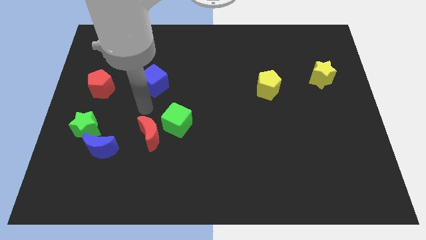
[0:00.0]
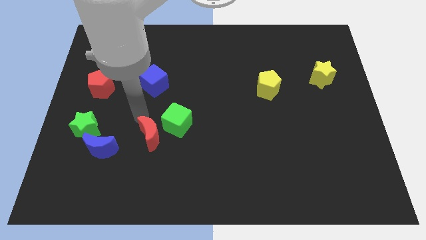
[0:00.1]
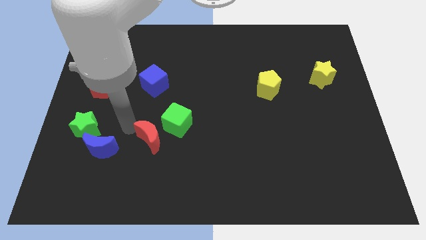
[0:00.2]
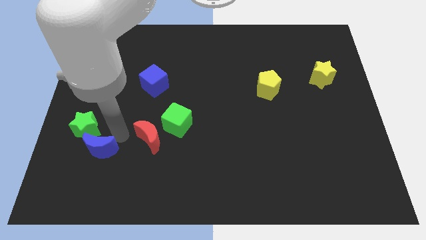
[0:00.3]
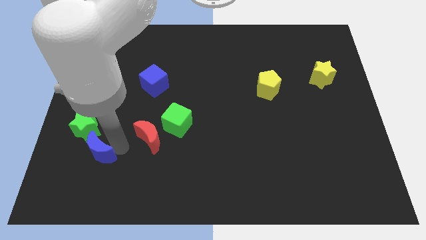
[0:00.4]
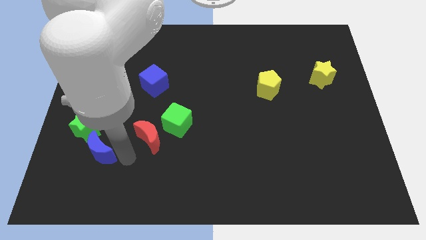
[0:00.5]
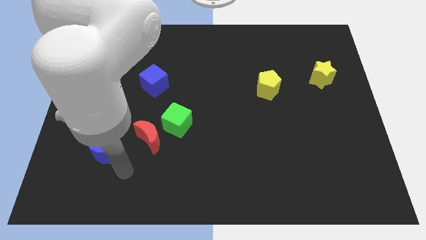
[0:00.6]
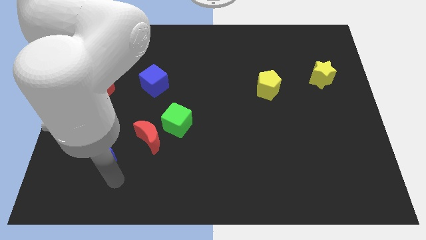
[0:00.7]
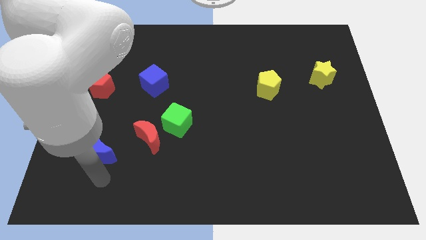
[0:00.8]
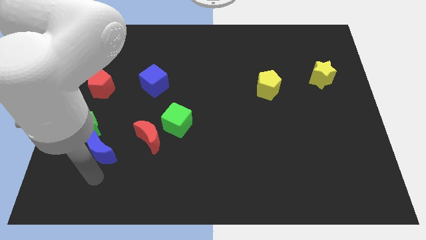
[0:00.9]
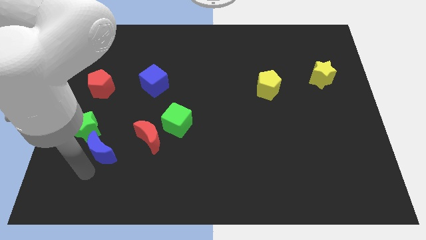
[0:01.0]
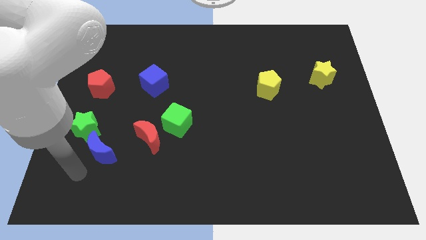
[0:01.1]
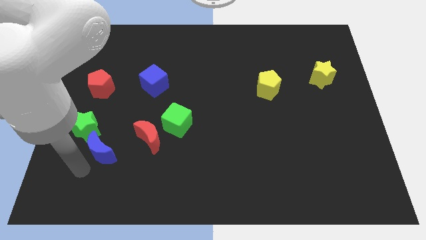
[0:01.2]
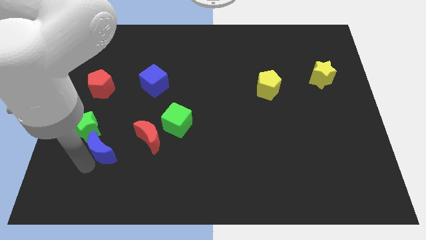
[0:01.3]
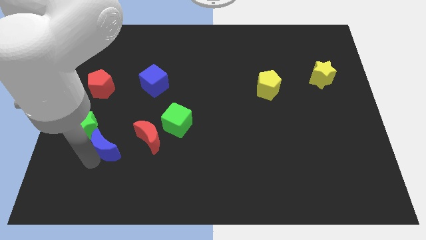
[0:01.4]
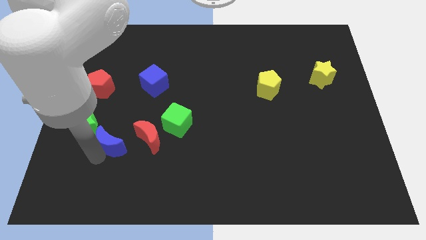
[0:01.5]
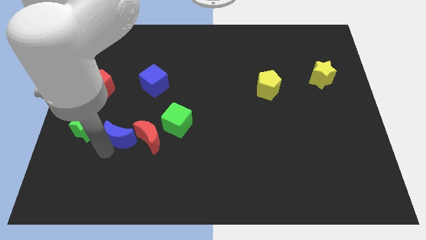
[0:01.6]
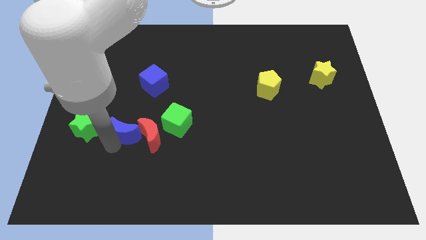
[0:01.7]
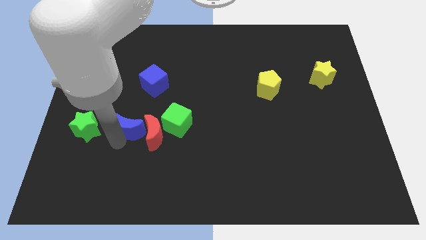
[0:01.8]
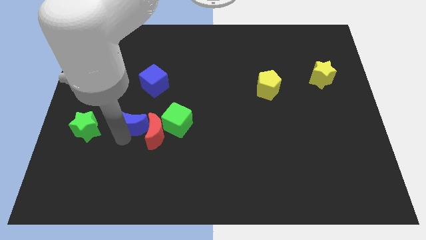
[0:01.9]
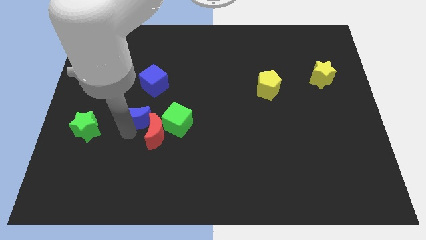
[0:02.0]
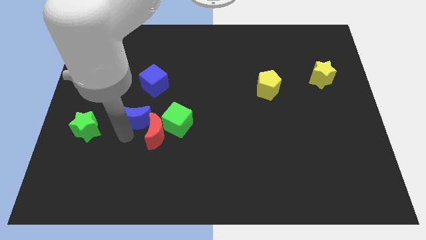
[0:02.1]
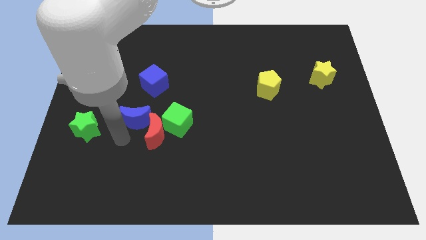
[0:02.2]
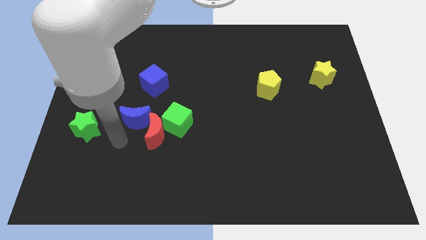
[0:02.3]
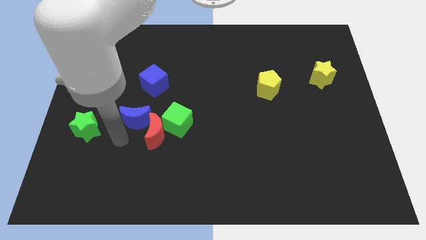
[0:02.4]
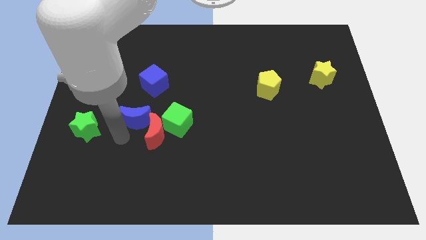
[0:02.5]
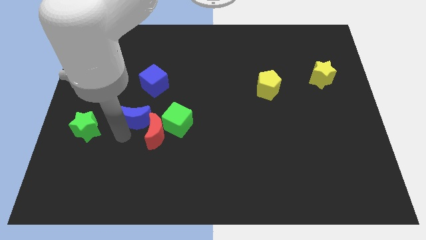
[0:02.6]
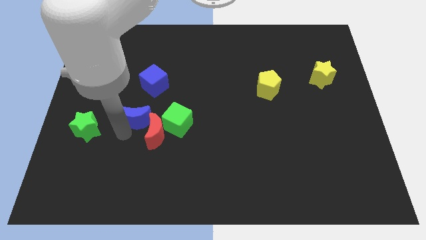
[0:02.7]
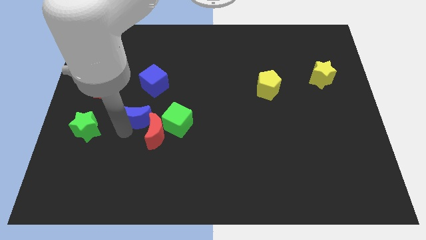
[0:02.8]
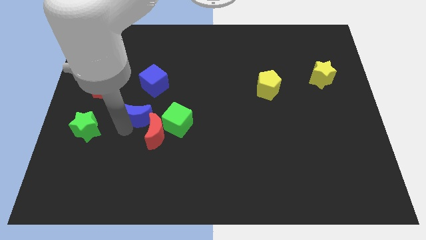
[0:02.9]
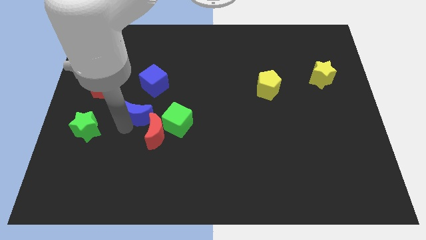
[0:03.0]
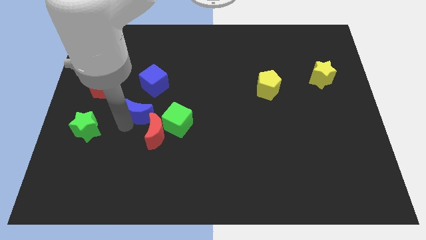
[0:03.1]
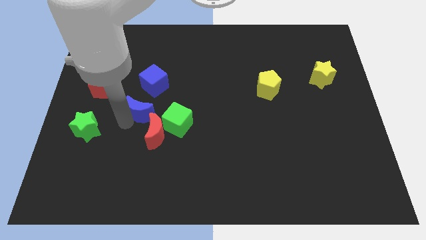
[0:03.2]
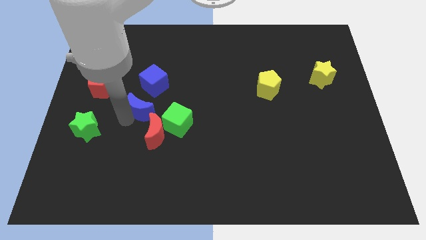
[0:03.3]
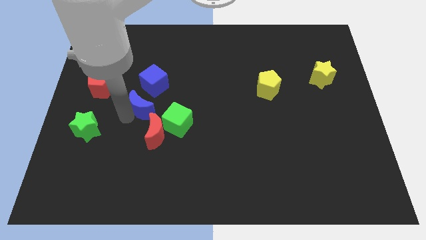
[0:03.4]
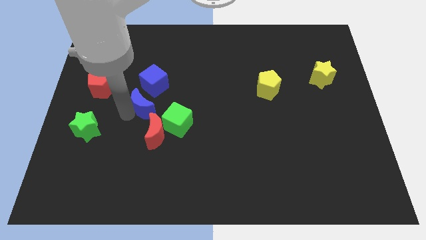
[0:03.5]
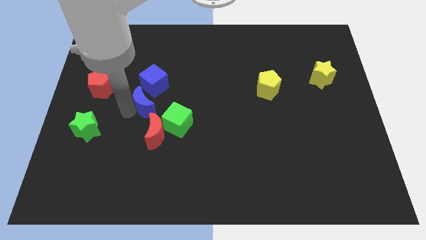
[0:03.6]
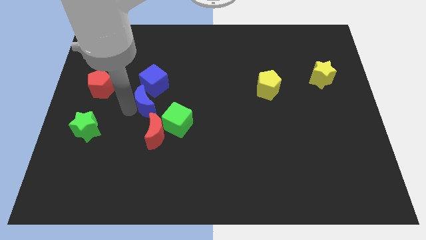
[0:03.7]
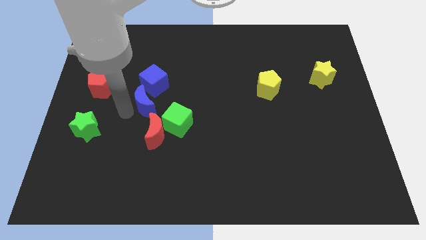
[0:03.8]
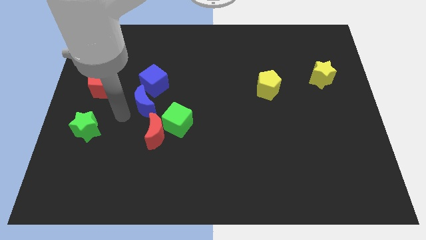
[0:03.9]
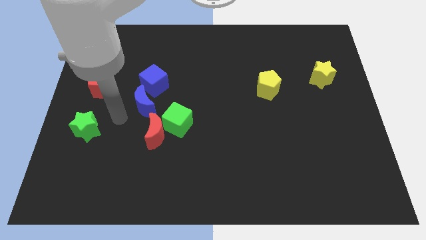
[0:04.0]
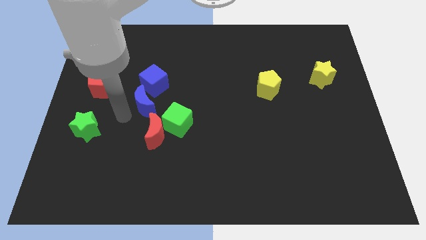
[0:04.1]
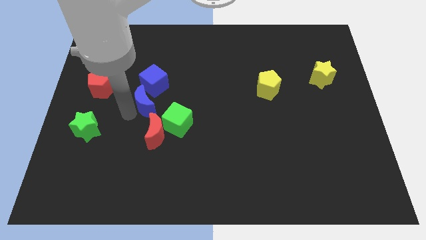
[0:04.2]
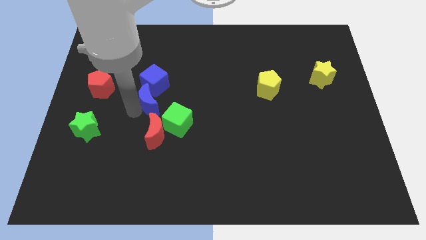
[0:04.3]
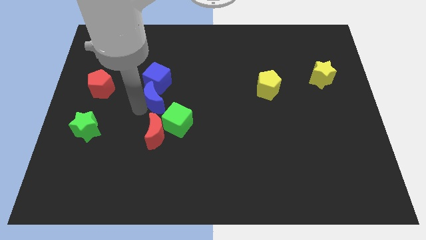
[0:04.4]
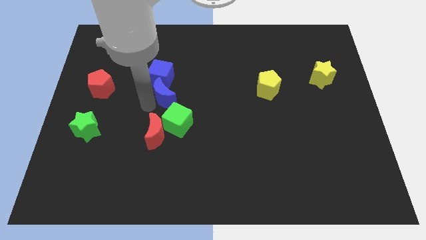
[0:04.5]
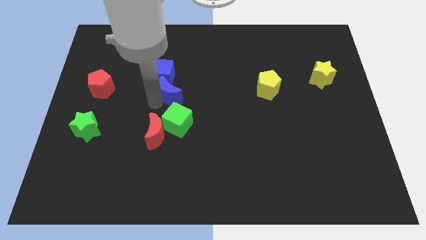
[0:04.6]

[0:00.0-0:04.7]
move the blue moon diagonally upwards and right

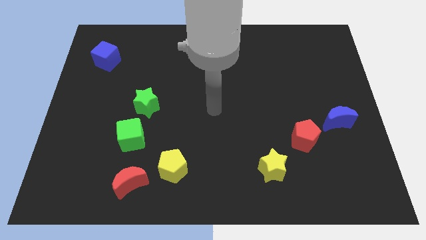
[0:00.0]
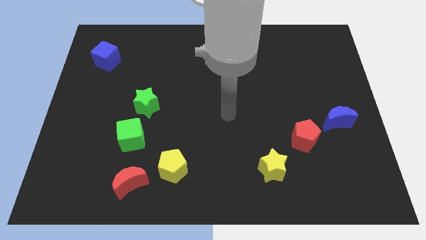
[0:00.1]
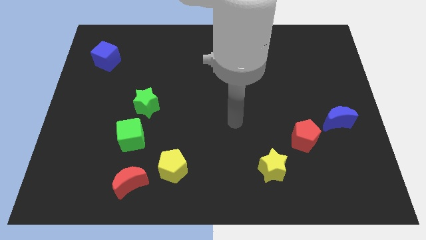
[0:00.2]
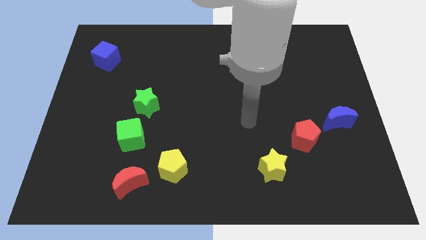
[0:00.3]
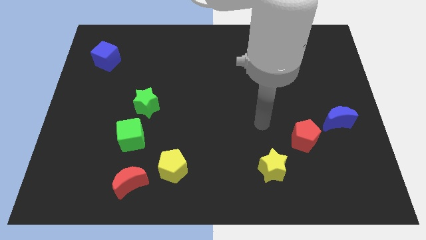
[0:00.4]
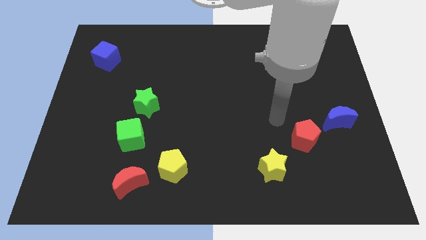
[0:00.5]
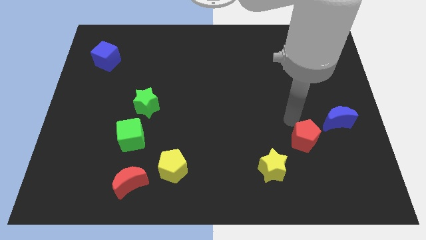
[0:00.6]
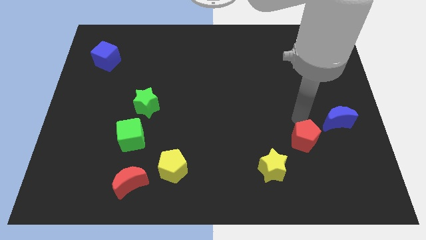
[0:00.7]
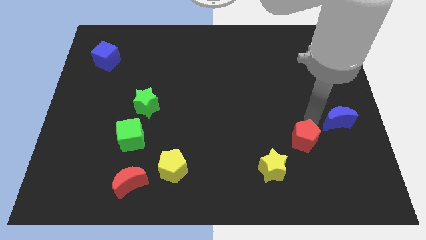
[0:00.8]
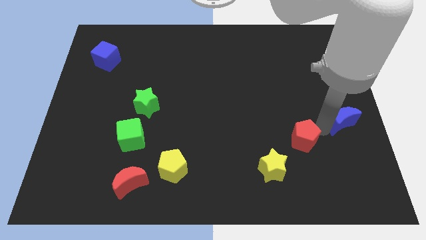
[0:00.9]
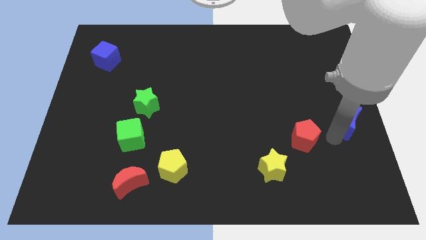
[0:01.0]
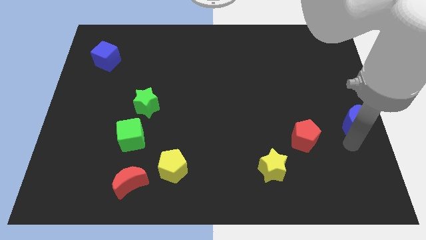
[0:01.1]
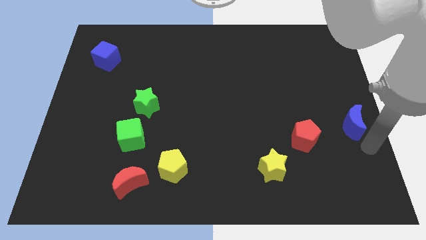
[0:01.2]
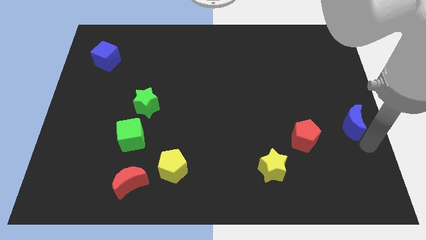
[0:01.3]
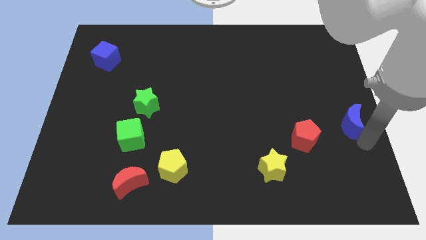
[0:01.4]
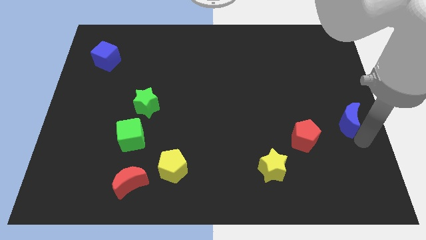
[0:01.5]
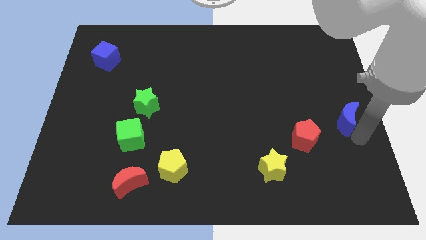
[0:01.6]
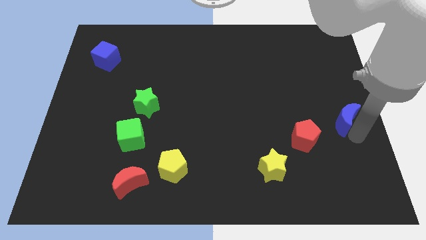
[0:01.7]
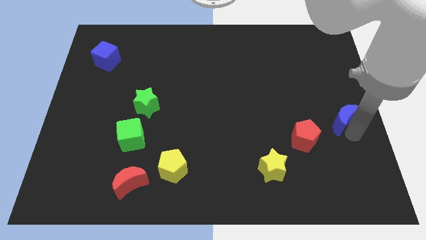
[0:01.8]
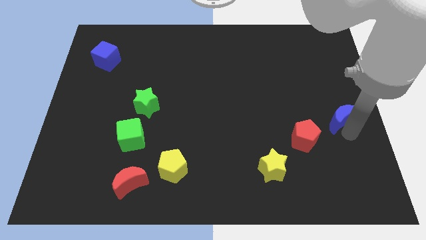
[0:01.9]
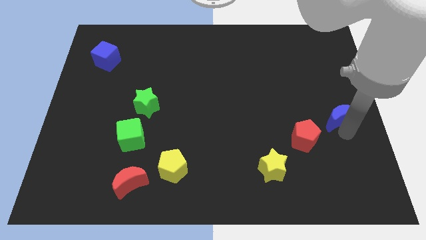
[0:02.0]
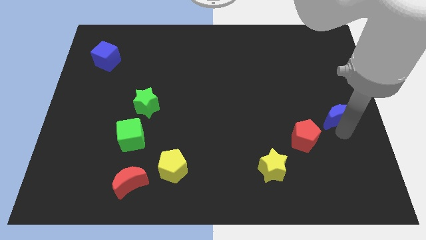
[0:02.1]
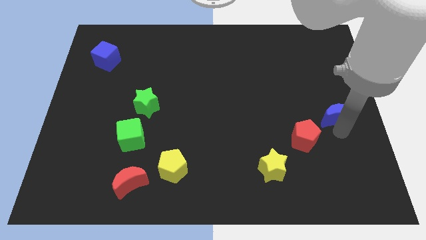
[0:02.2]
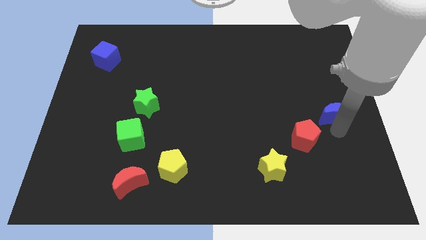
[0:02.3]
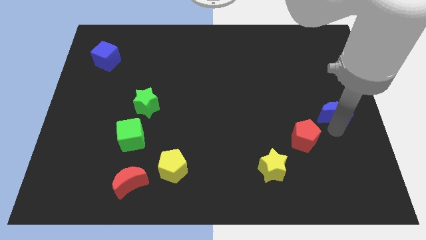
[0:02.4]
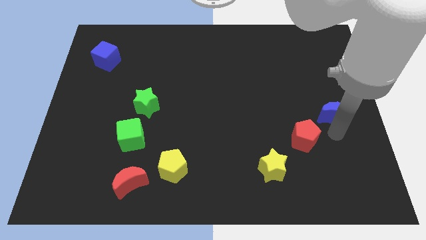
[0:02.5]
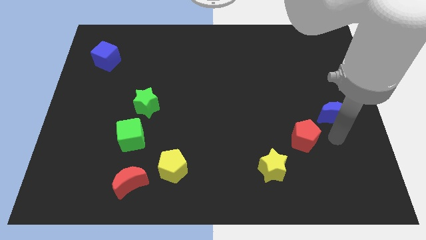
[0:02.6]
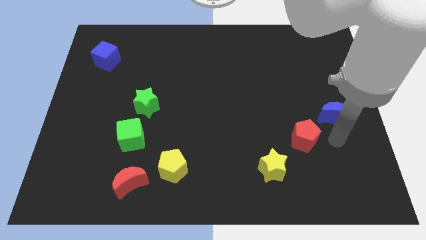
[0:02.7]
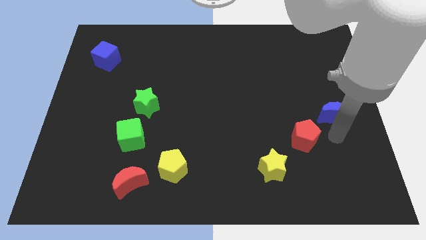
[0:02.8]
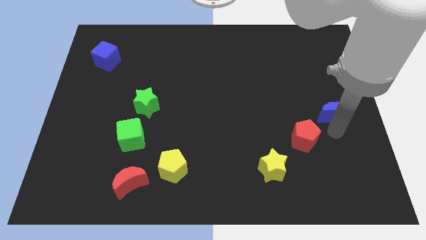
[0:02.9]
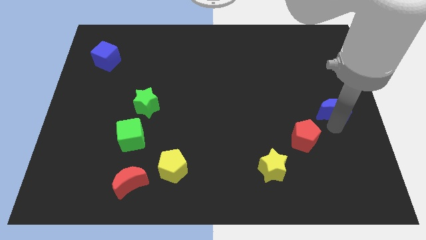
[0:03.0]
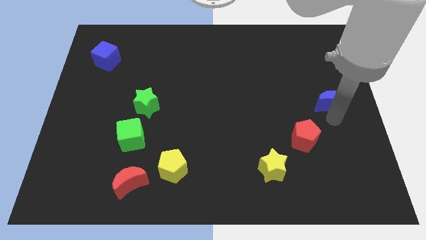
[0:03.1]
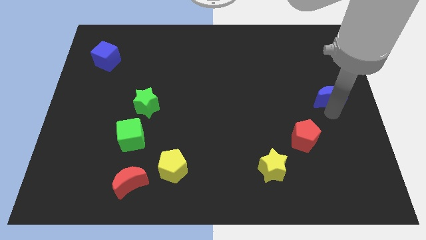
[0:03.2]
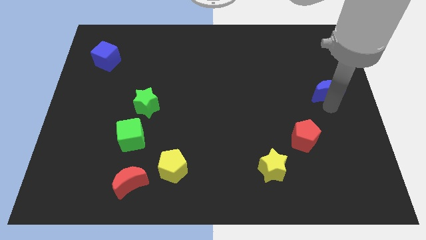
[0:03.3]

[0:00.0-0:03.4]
slightly push the blue moon up
